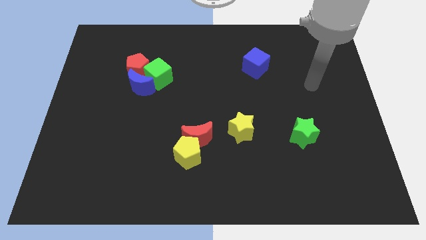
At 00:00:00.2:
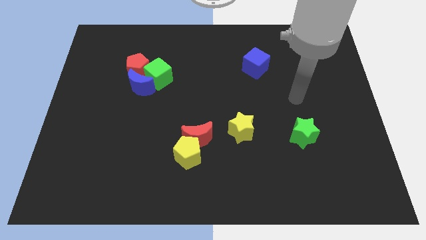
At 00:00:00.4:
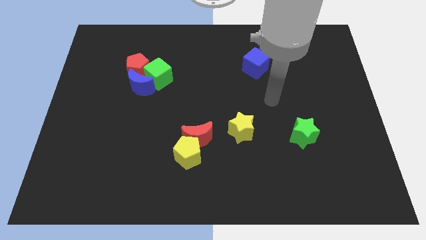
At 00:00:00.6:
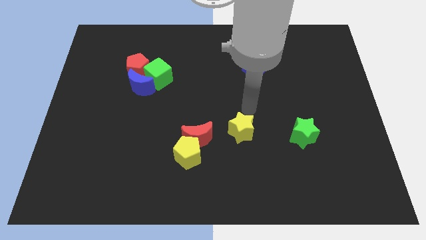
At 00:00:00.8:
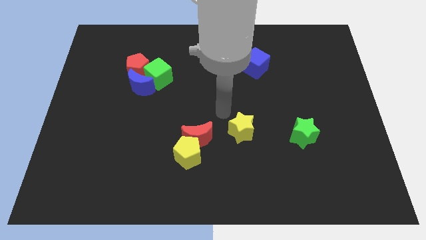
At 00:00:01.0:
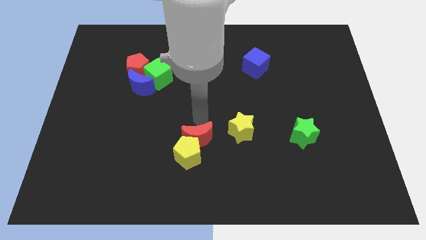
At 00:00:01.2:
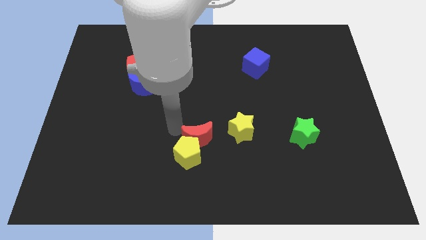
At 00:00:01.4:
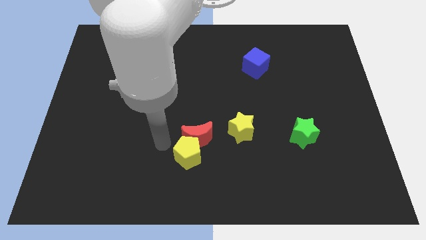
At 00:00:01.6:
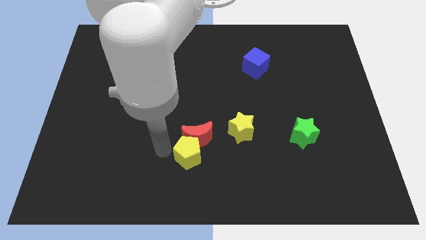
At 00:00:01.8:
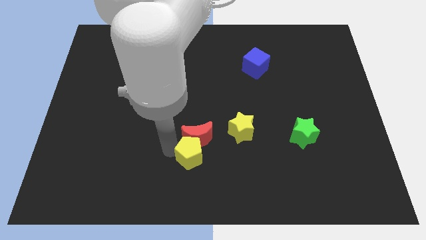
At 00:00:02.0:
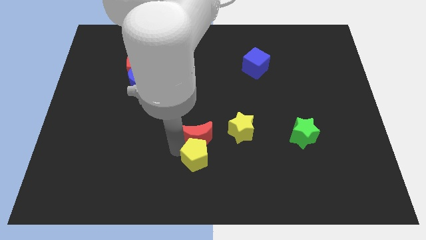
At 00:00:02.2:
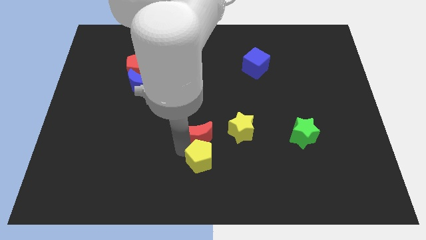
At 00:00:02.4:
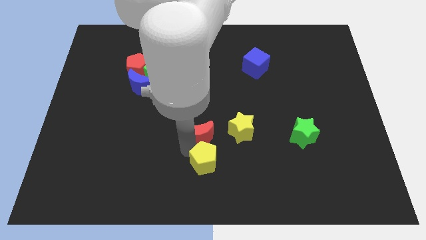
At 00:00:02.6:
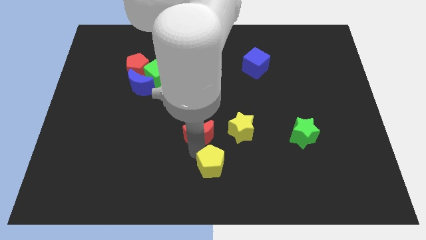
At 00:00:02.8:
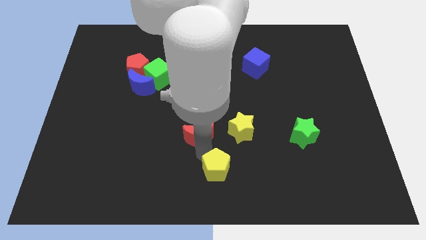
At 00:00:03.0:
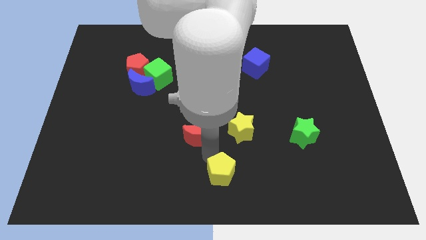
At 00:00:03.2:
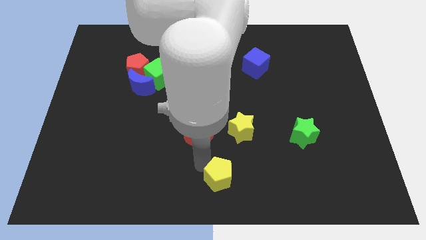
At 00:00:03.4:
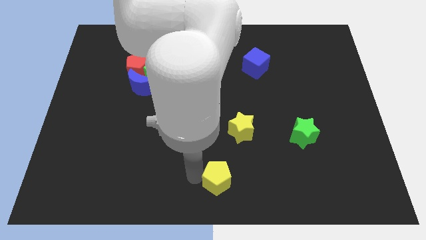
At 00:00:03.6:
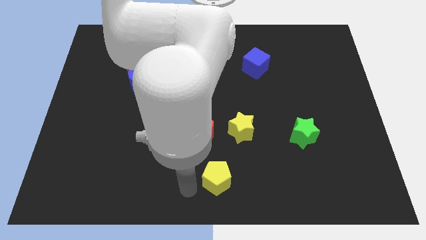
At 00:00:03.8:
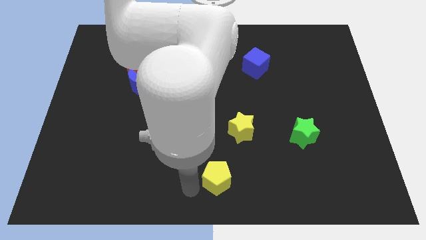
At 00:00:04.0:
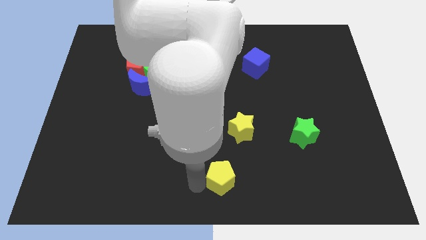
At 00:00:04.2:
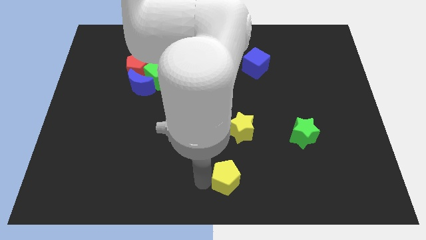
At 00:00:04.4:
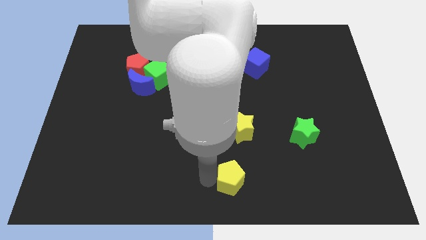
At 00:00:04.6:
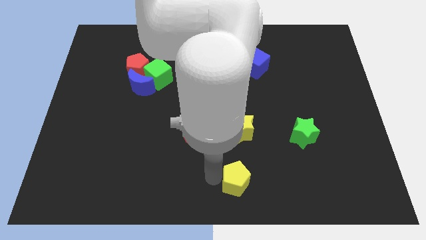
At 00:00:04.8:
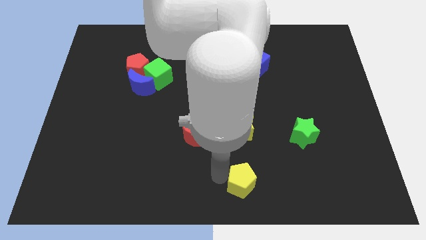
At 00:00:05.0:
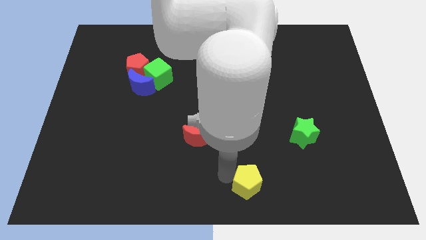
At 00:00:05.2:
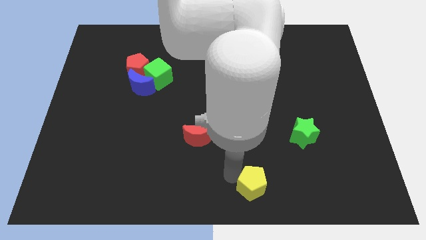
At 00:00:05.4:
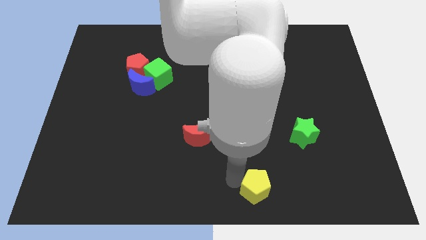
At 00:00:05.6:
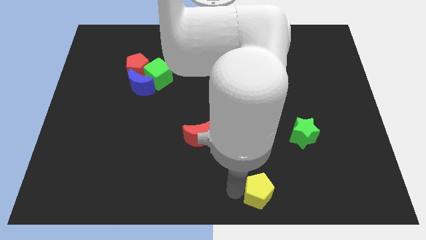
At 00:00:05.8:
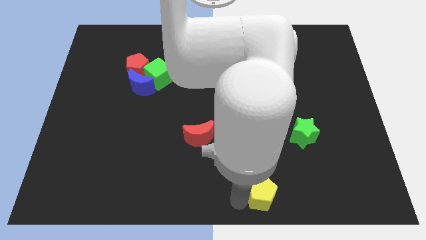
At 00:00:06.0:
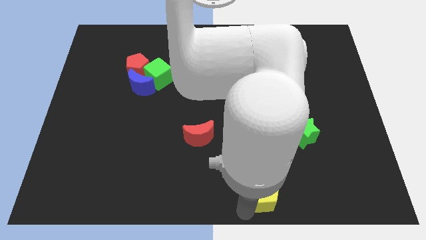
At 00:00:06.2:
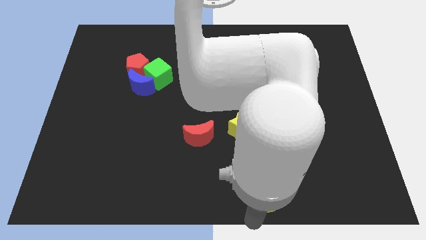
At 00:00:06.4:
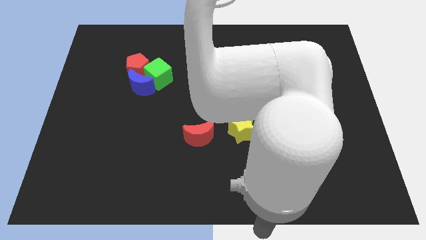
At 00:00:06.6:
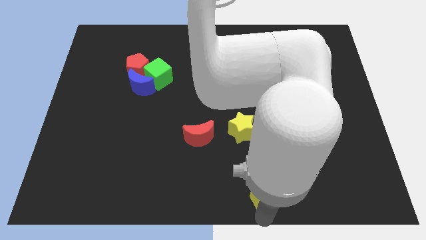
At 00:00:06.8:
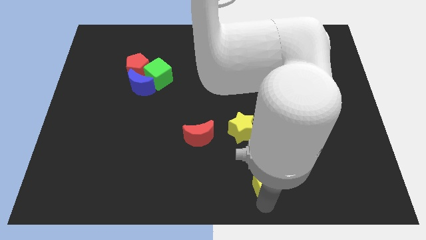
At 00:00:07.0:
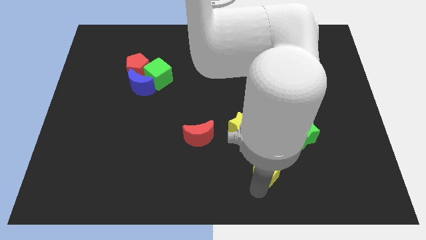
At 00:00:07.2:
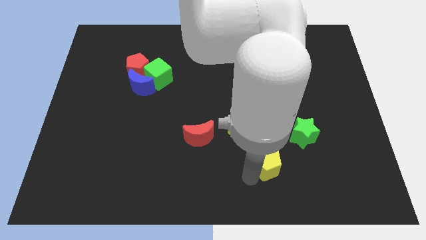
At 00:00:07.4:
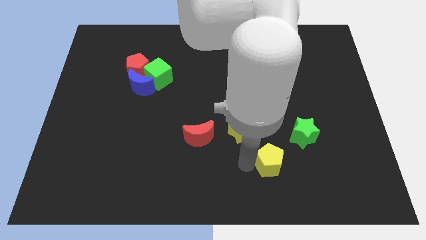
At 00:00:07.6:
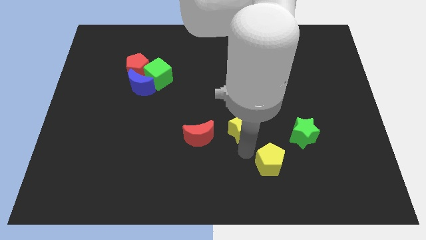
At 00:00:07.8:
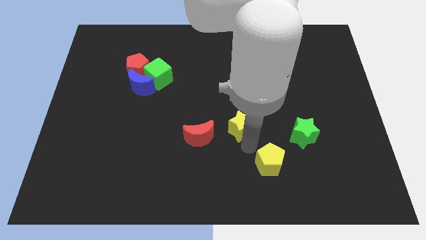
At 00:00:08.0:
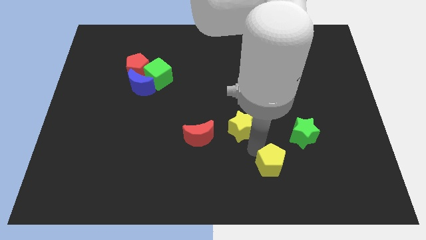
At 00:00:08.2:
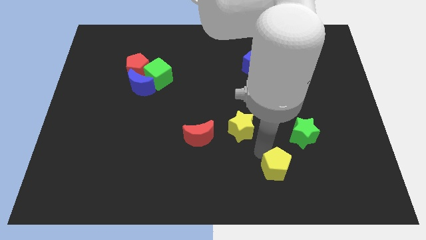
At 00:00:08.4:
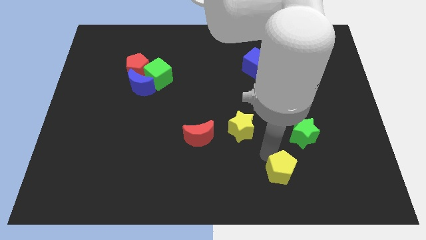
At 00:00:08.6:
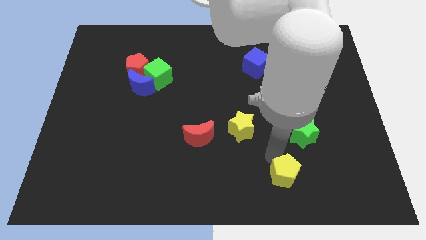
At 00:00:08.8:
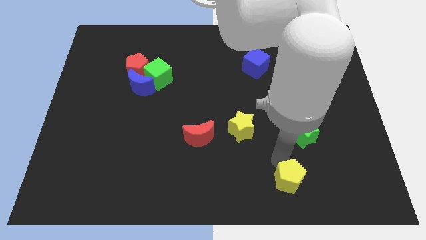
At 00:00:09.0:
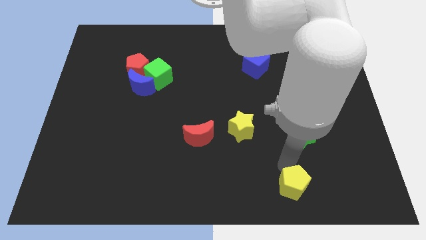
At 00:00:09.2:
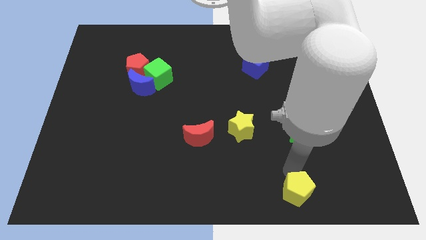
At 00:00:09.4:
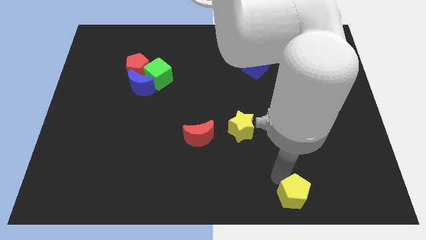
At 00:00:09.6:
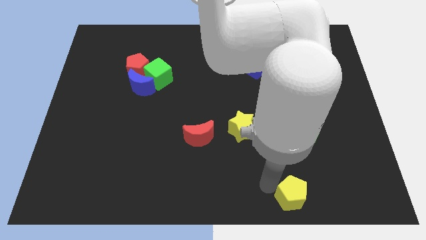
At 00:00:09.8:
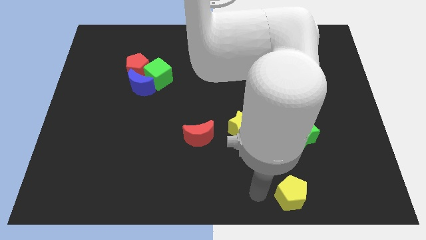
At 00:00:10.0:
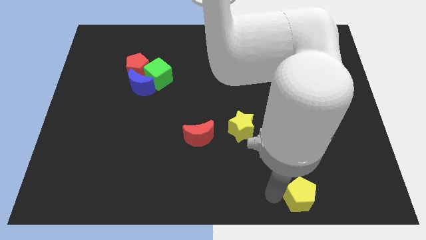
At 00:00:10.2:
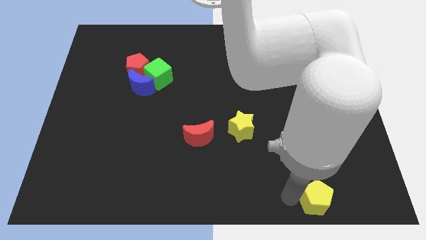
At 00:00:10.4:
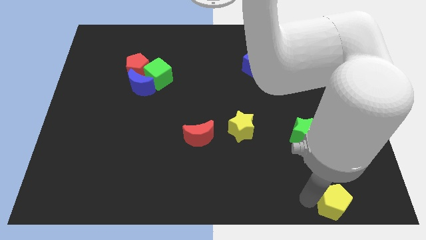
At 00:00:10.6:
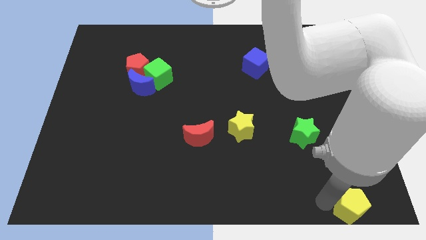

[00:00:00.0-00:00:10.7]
push the yellow pentagon to the bottom right corner

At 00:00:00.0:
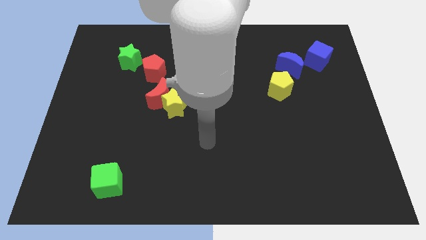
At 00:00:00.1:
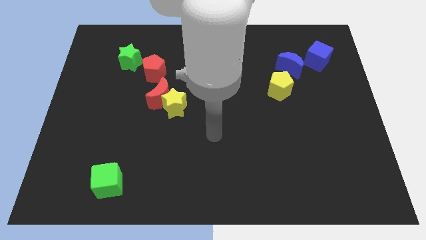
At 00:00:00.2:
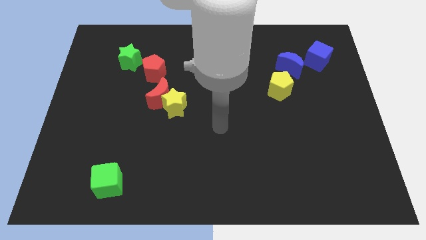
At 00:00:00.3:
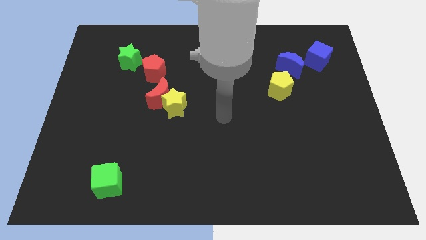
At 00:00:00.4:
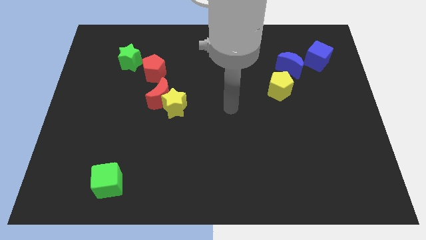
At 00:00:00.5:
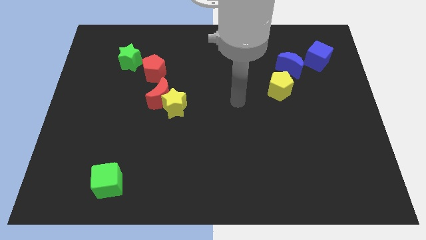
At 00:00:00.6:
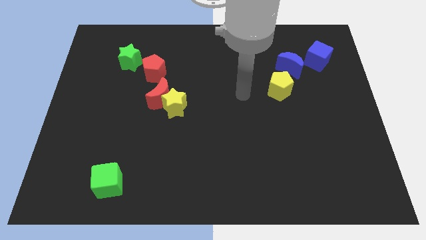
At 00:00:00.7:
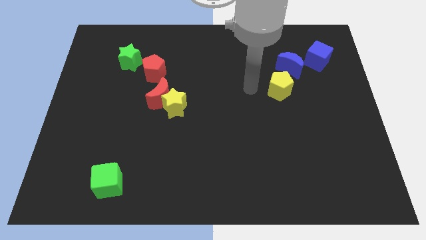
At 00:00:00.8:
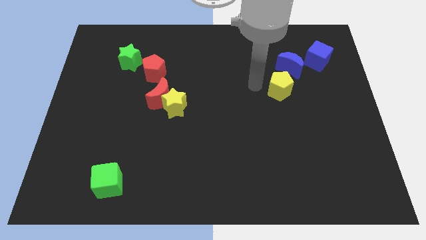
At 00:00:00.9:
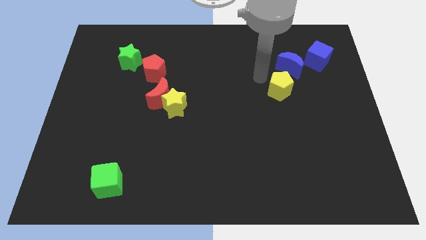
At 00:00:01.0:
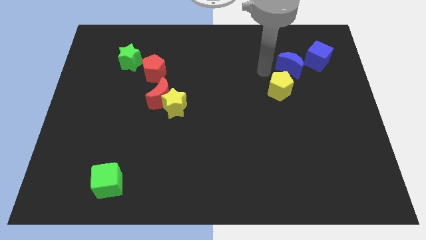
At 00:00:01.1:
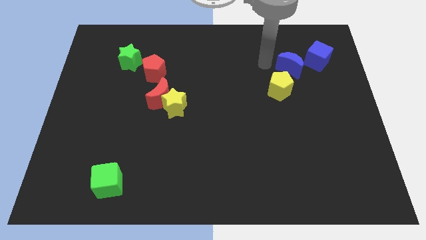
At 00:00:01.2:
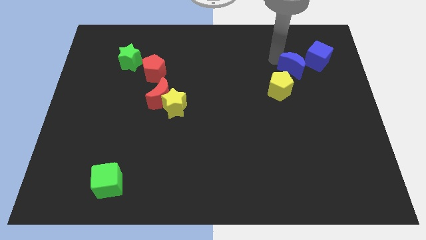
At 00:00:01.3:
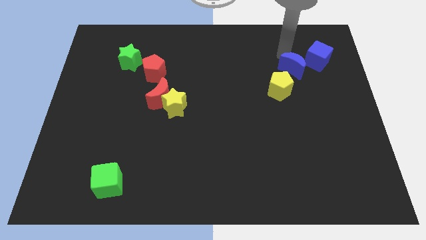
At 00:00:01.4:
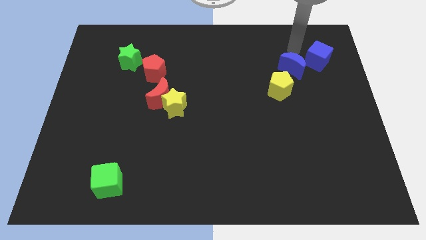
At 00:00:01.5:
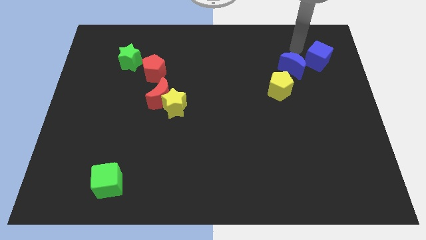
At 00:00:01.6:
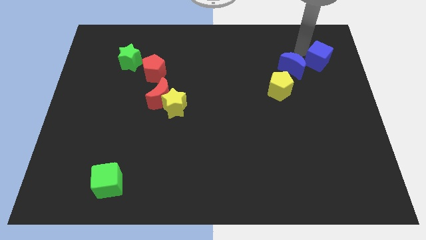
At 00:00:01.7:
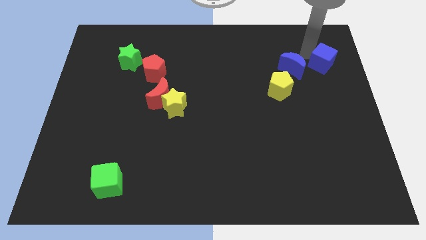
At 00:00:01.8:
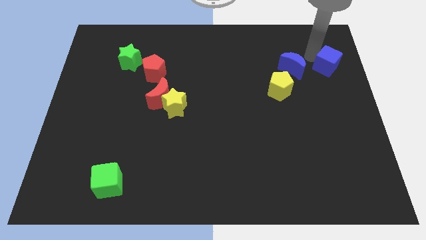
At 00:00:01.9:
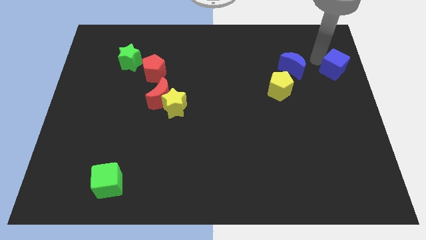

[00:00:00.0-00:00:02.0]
push the blue cube to the center right
